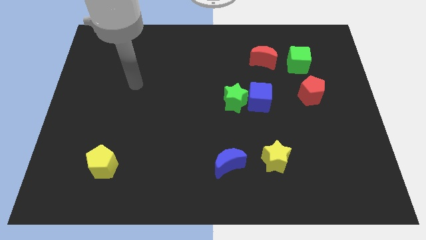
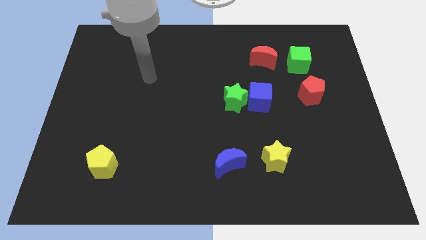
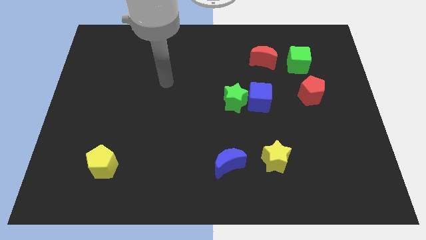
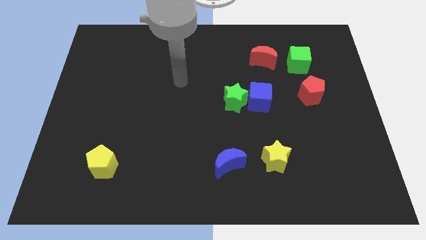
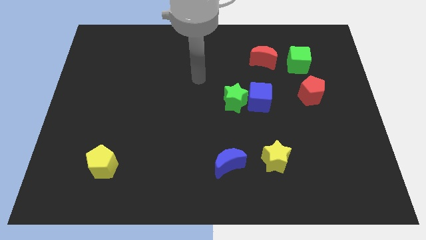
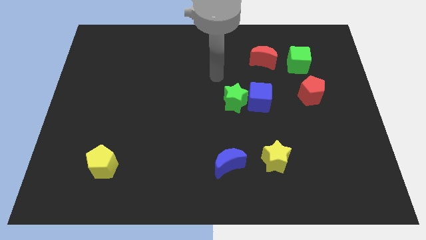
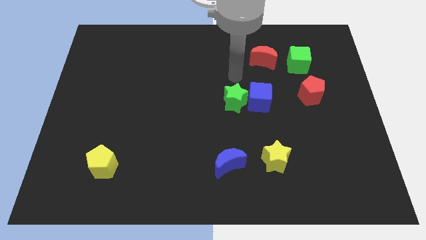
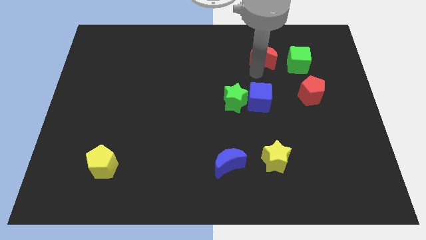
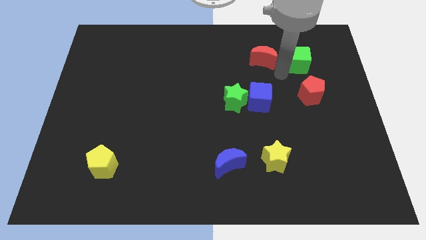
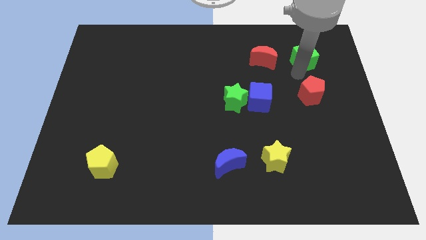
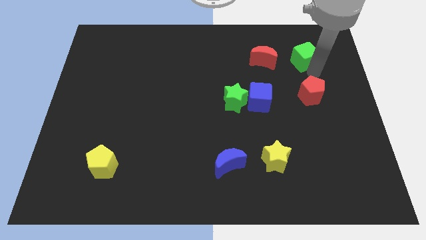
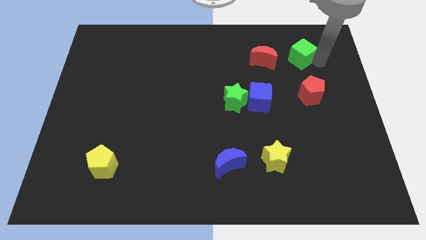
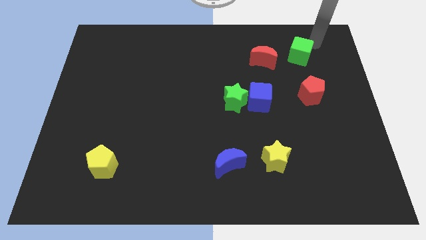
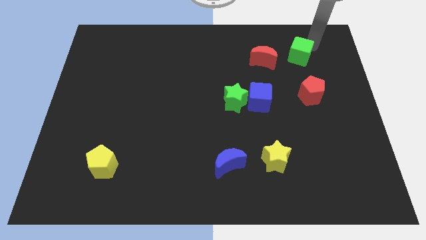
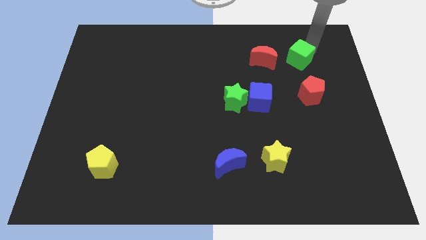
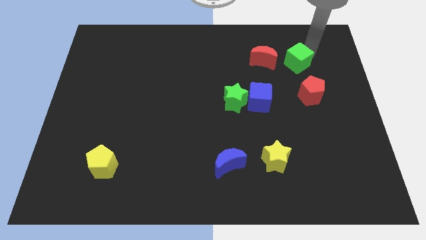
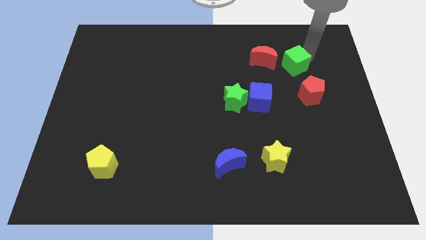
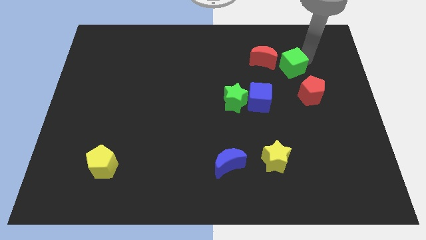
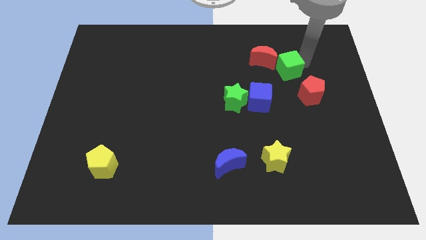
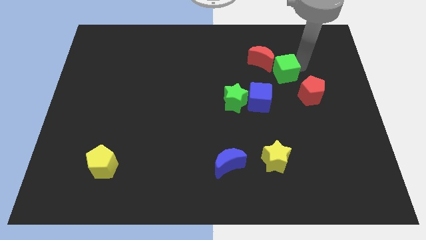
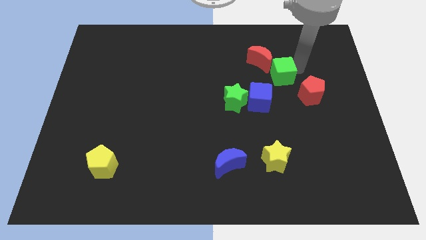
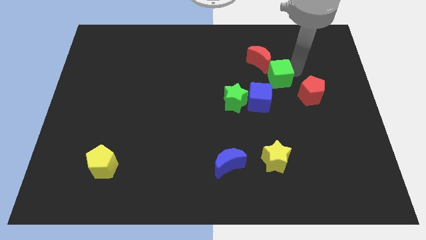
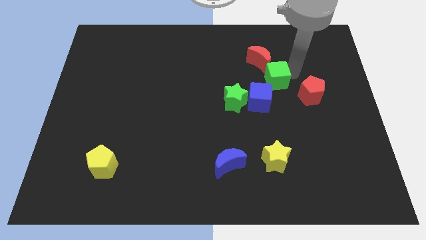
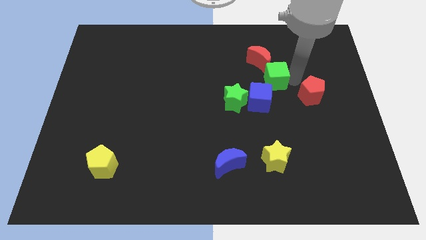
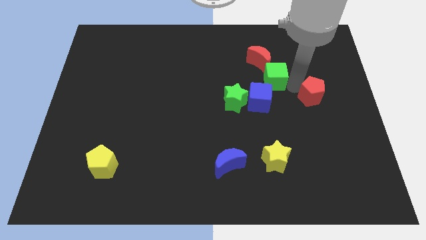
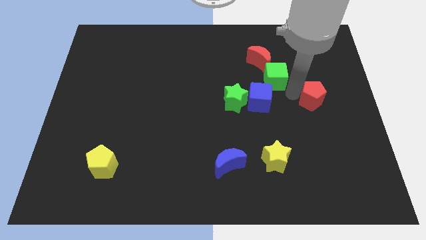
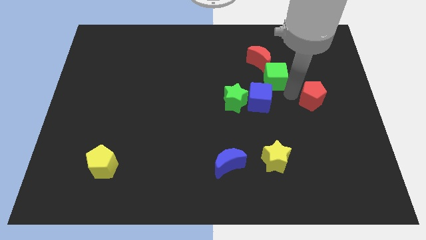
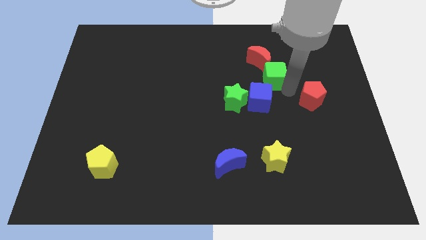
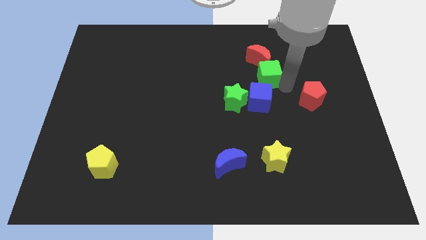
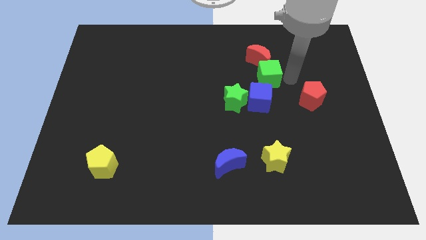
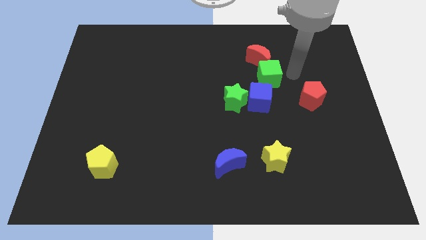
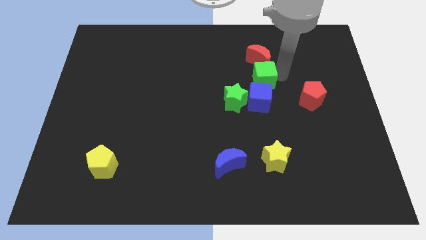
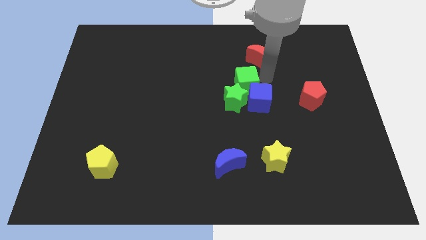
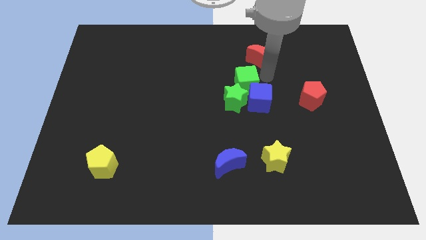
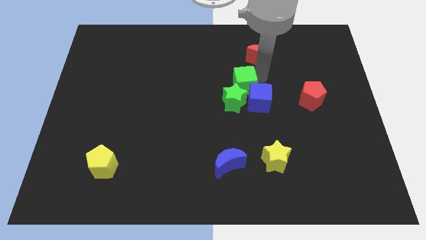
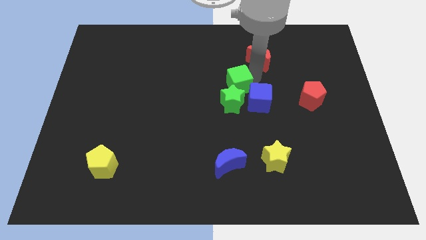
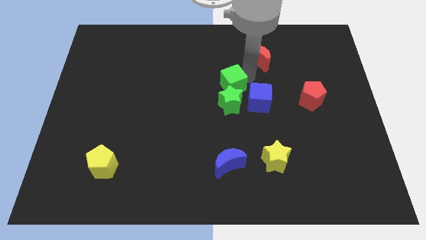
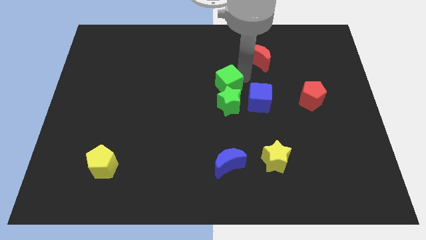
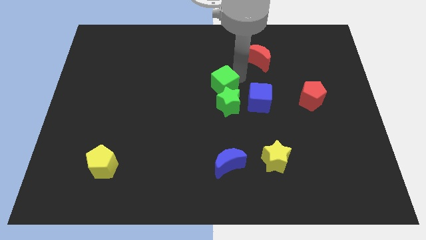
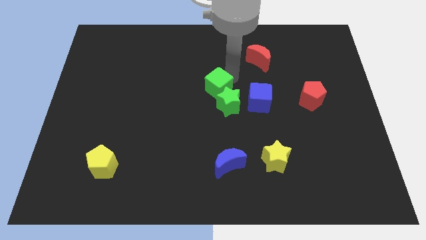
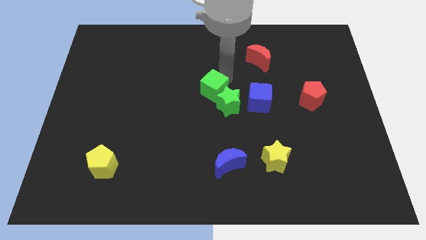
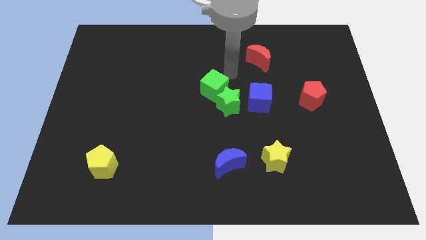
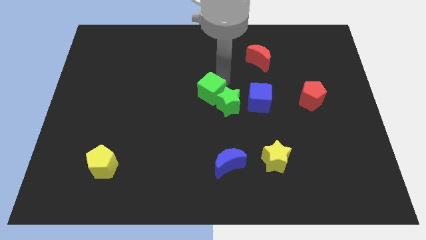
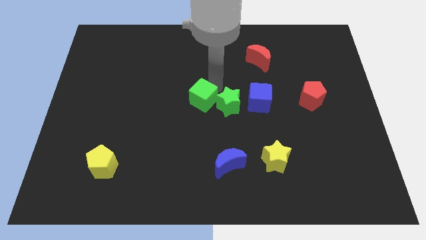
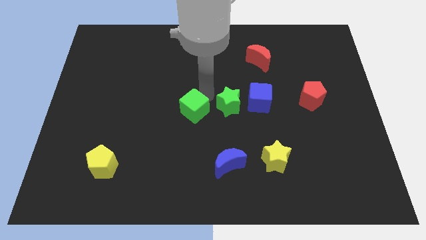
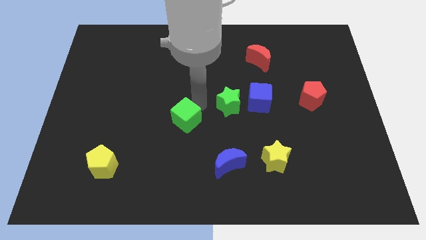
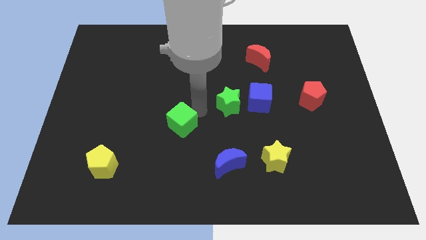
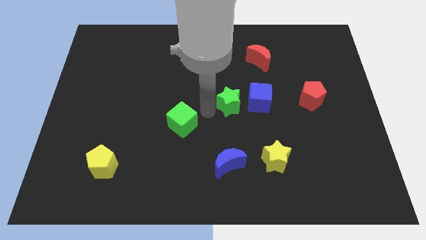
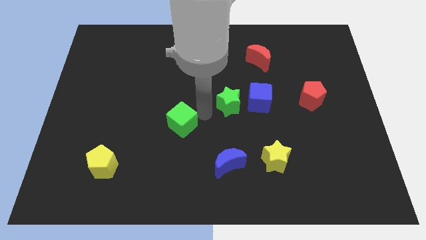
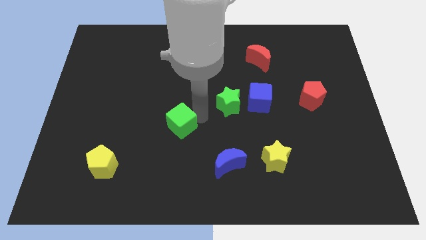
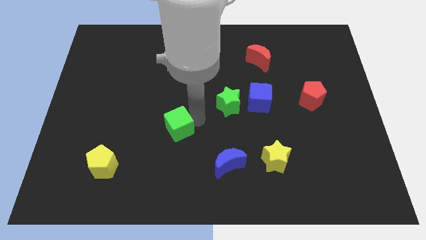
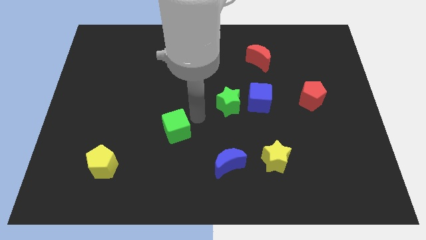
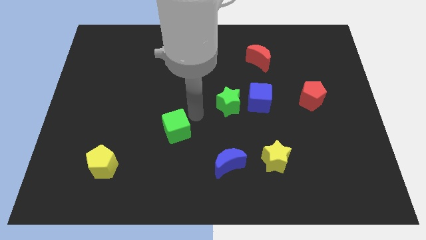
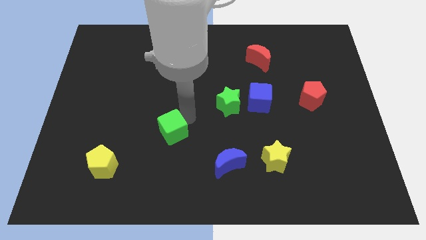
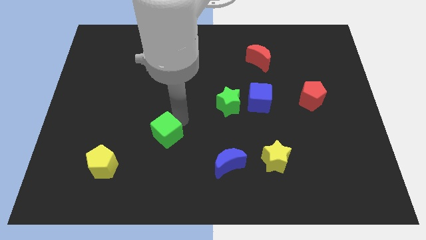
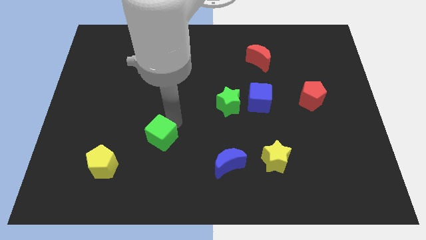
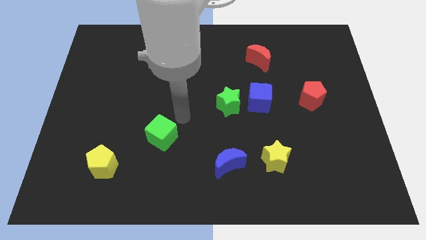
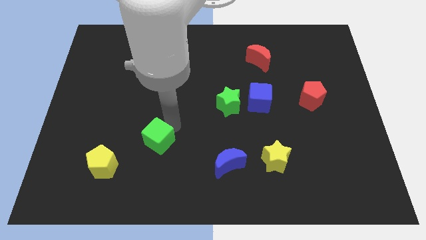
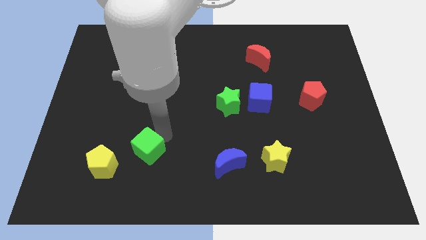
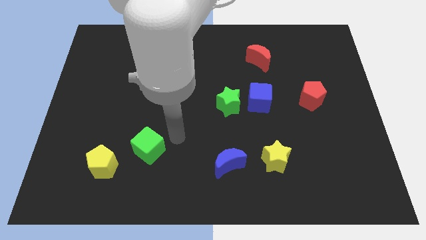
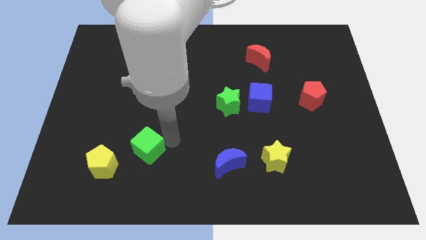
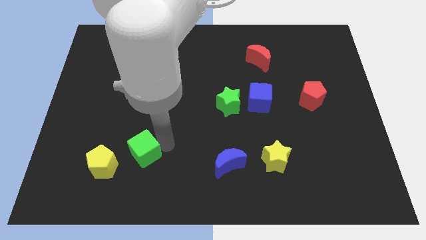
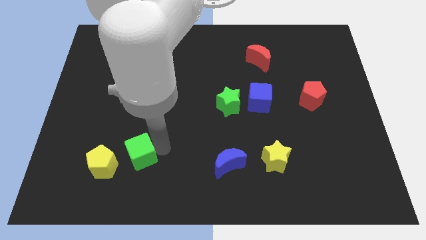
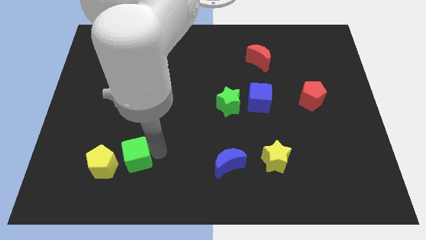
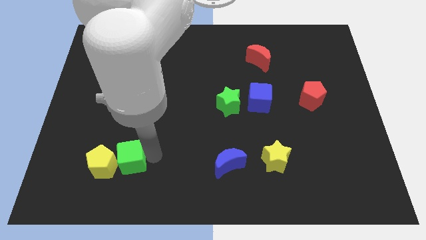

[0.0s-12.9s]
put the green cube close to the yellow pentagon

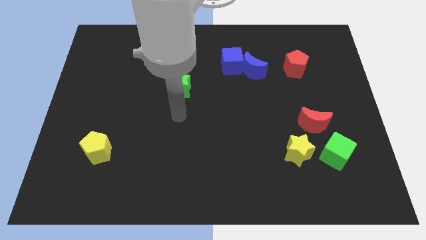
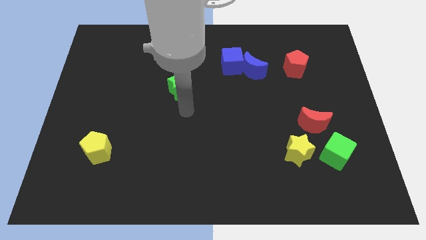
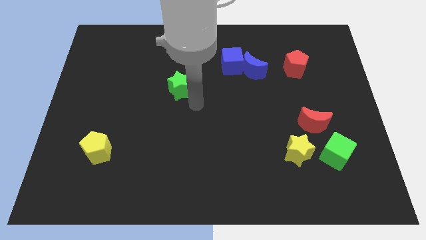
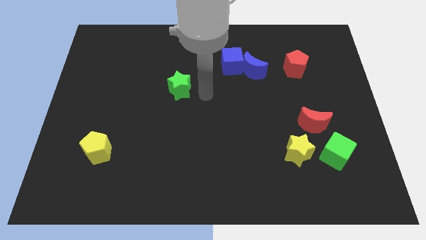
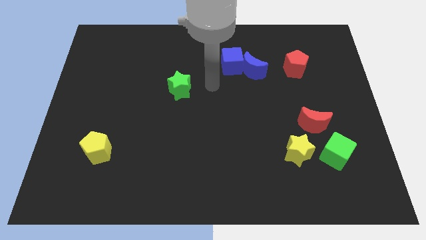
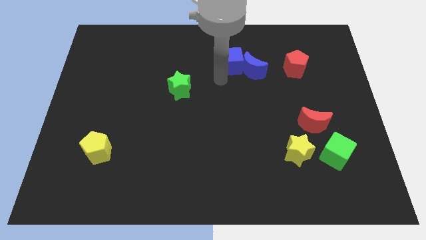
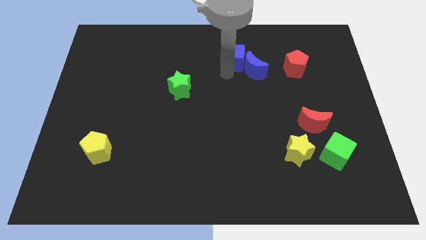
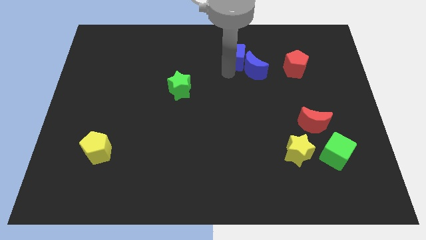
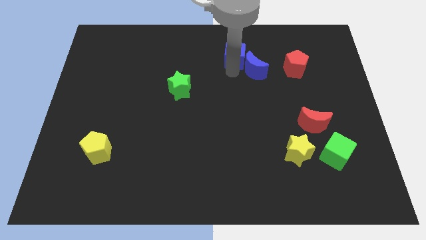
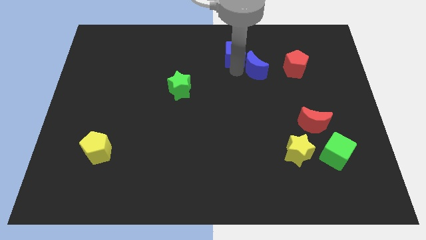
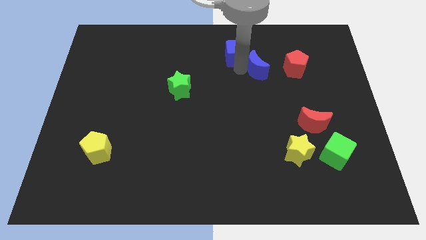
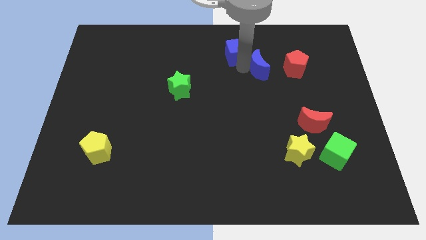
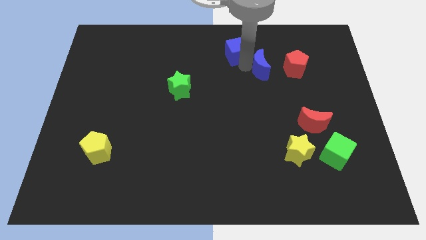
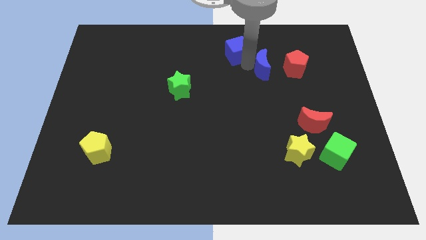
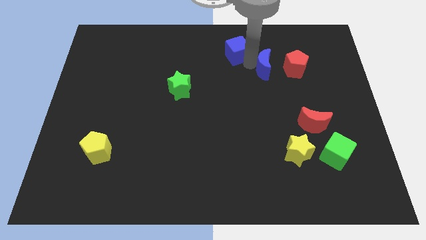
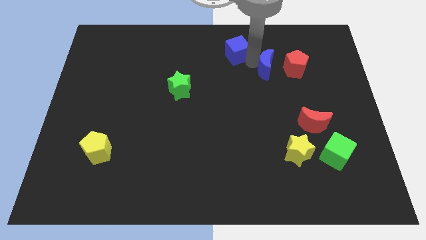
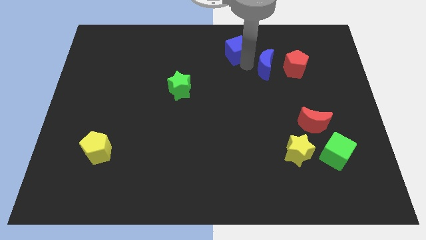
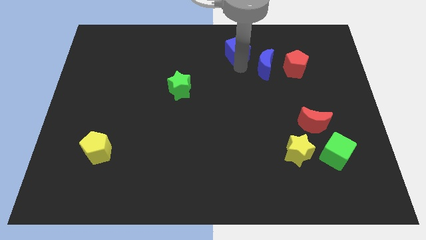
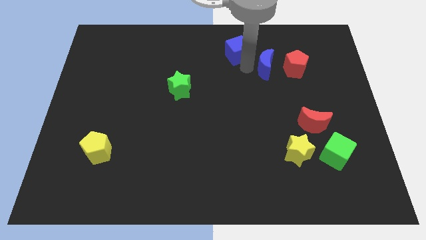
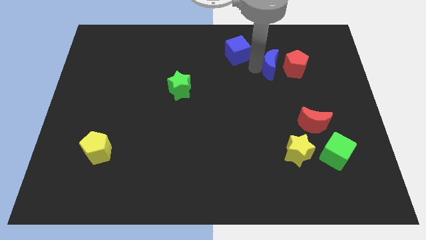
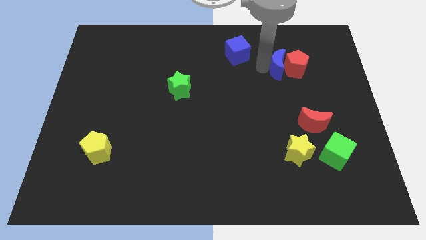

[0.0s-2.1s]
push the blue moon next to the red pentagon
